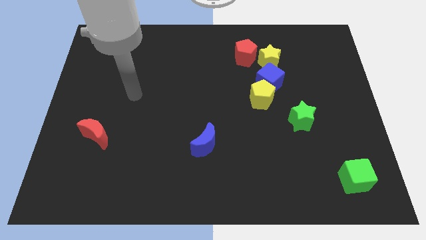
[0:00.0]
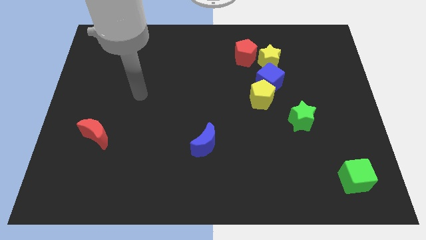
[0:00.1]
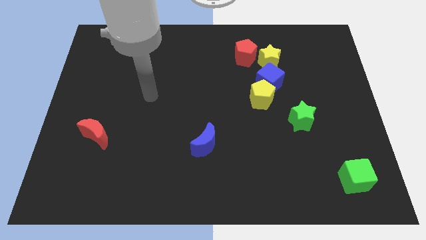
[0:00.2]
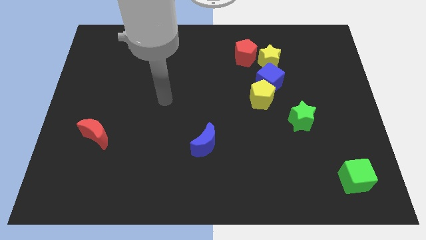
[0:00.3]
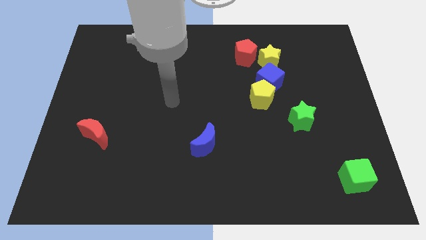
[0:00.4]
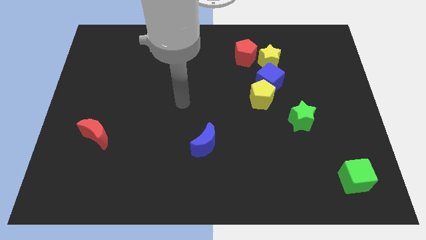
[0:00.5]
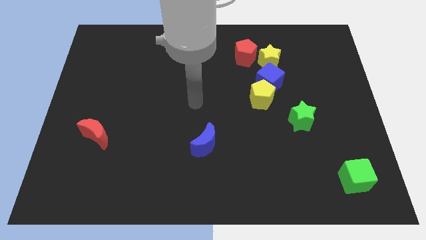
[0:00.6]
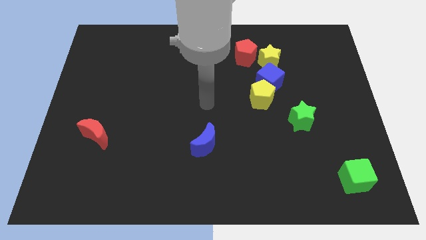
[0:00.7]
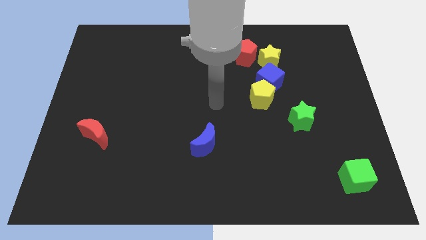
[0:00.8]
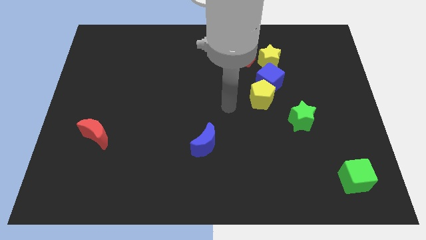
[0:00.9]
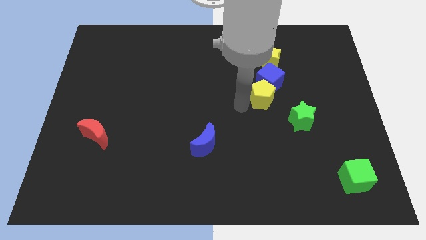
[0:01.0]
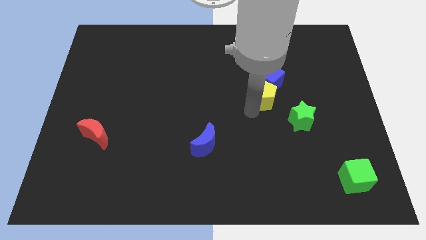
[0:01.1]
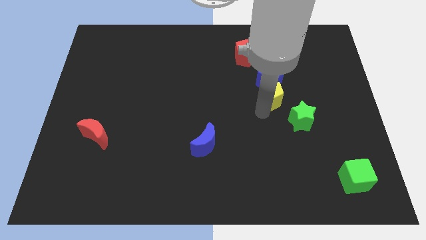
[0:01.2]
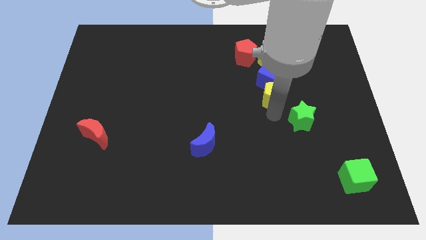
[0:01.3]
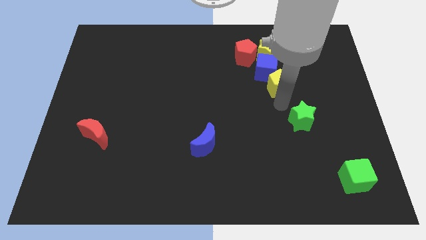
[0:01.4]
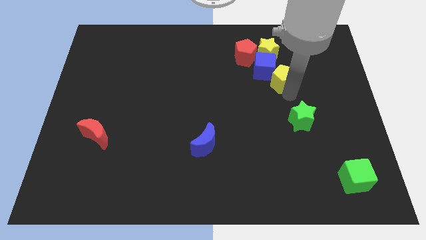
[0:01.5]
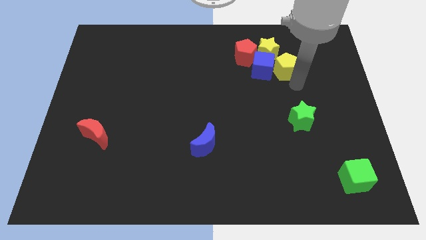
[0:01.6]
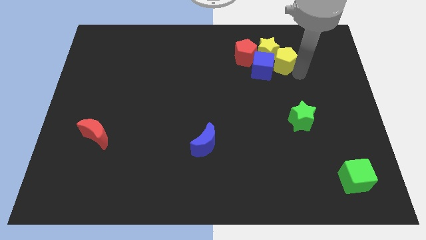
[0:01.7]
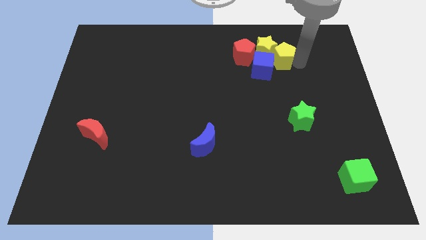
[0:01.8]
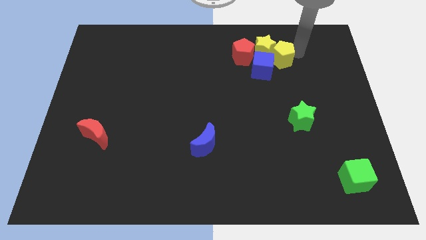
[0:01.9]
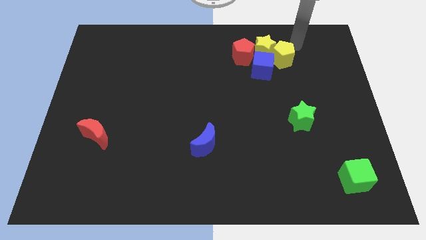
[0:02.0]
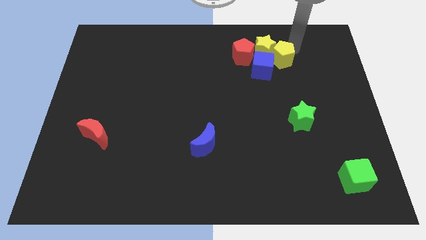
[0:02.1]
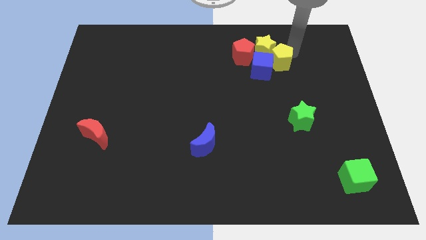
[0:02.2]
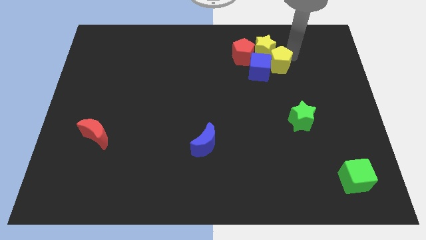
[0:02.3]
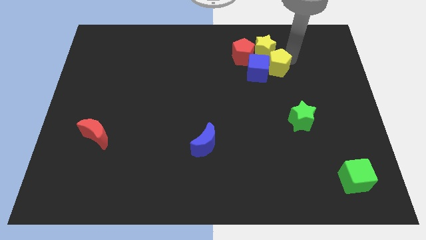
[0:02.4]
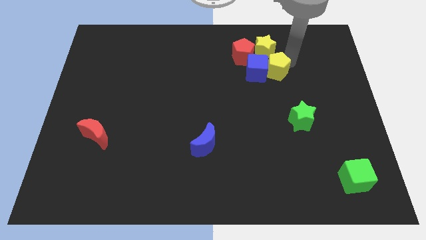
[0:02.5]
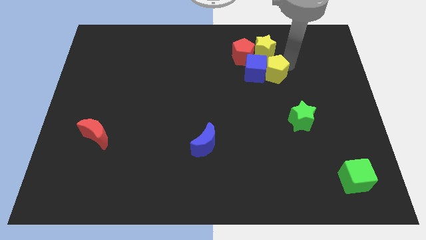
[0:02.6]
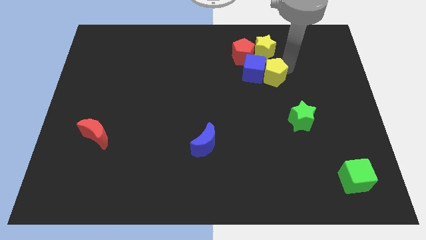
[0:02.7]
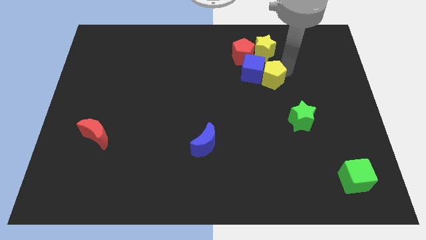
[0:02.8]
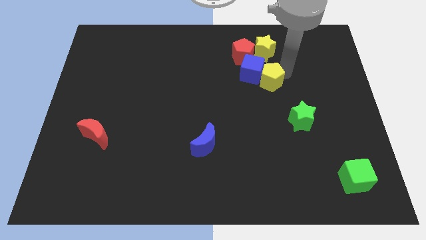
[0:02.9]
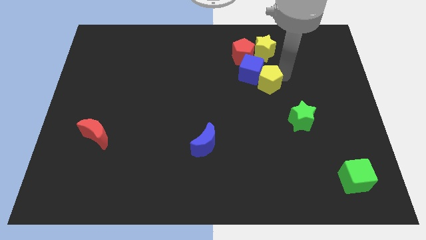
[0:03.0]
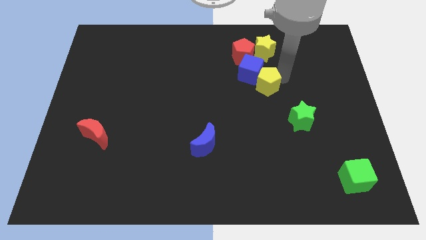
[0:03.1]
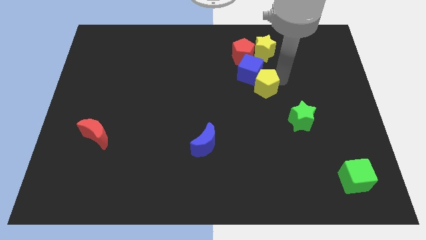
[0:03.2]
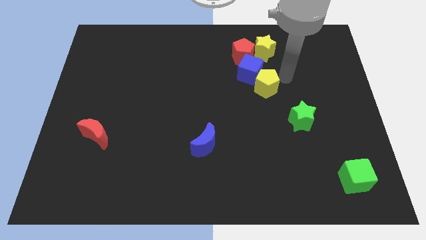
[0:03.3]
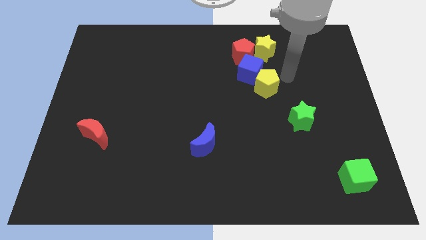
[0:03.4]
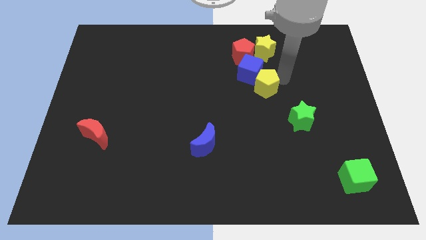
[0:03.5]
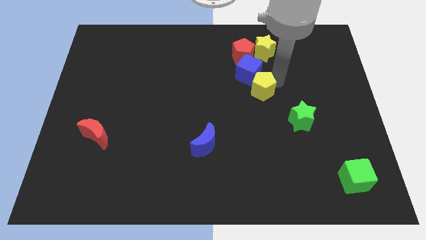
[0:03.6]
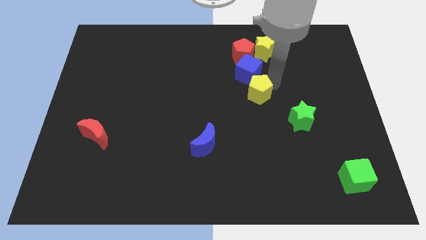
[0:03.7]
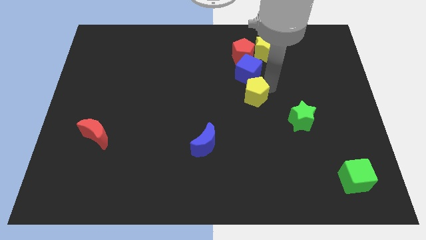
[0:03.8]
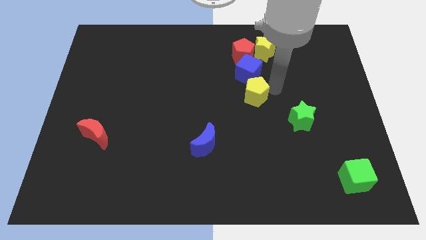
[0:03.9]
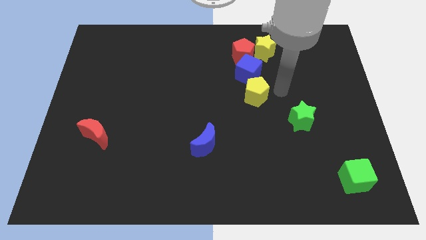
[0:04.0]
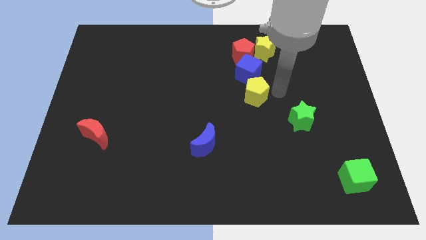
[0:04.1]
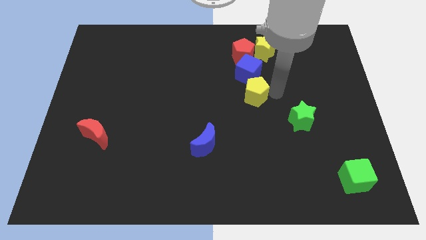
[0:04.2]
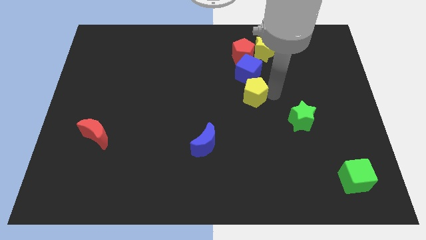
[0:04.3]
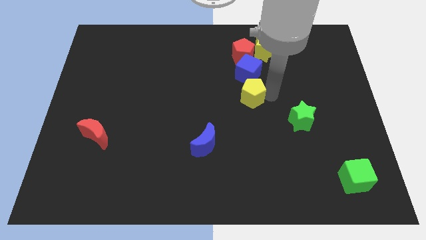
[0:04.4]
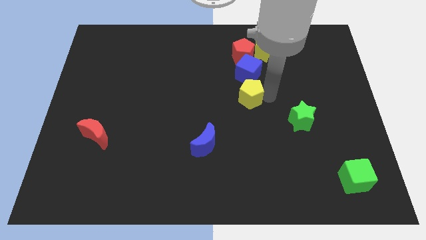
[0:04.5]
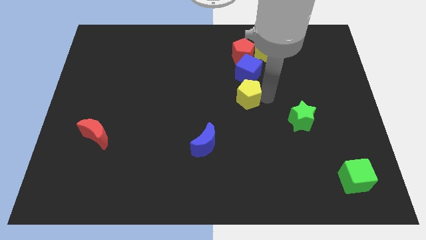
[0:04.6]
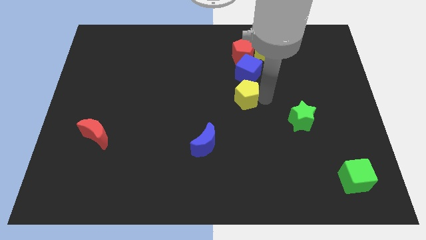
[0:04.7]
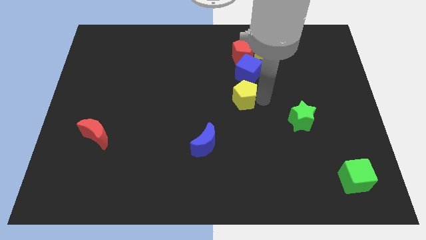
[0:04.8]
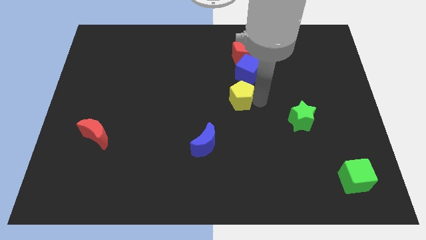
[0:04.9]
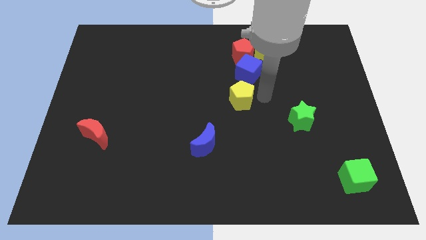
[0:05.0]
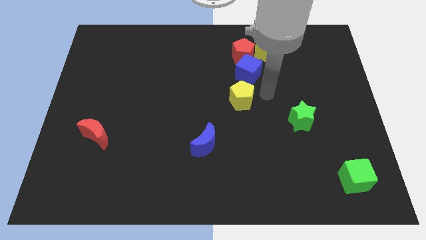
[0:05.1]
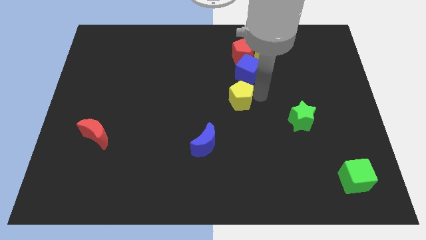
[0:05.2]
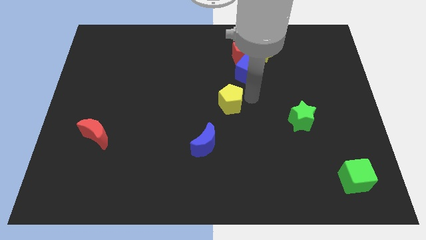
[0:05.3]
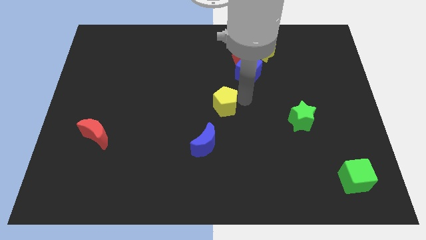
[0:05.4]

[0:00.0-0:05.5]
move the yellow pentagon to the top side of the blue moon

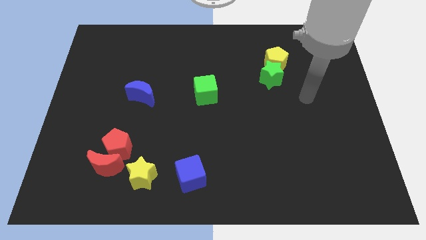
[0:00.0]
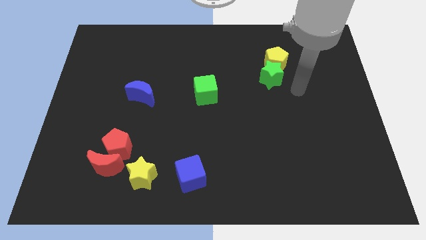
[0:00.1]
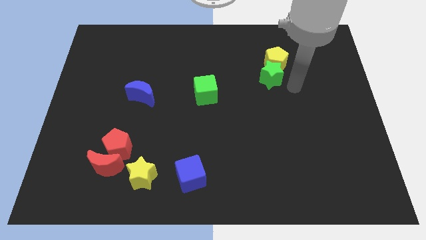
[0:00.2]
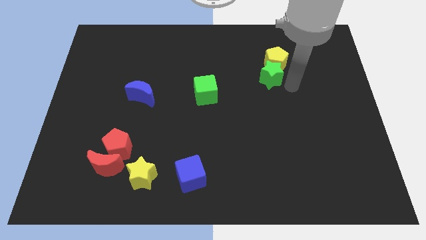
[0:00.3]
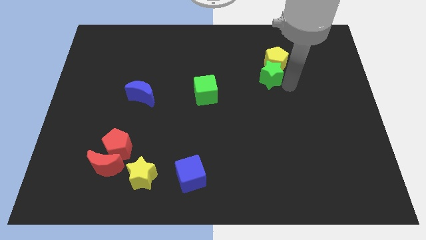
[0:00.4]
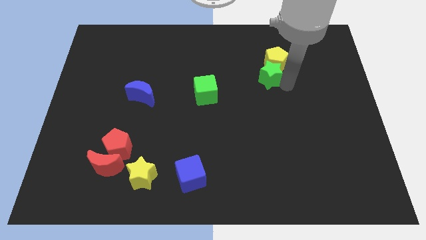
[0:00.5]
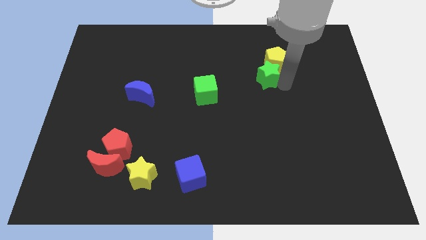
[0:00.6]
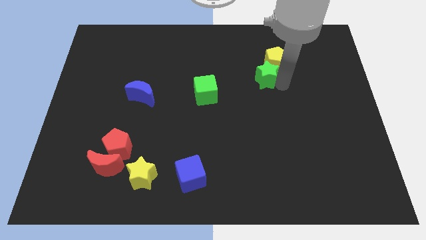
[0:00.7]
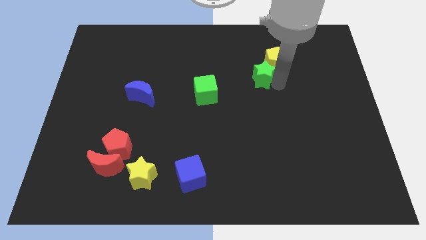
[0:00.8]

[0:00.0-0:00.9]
put the green star to the left of the yellow pentagon

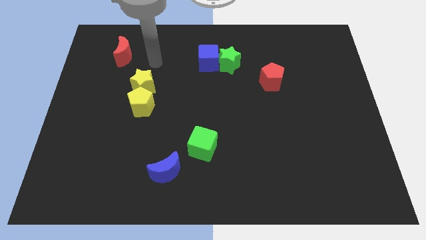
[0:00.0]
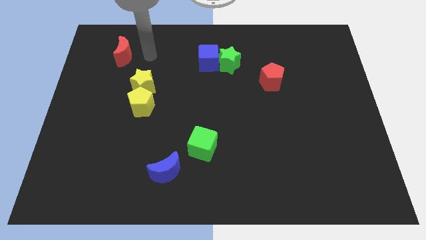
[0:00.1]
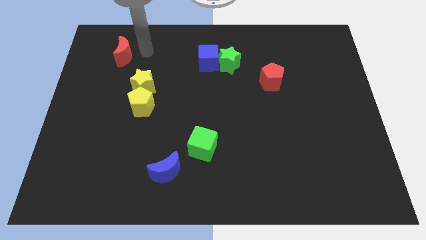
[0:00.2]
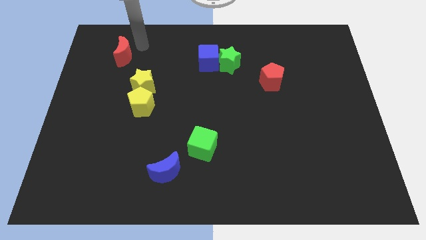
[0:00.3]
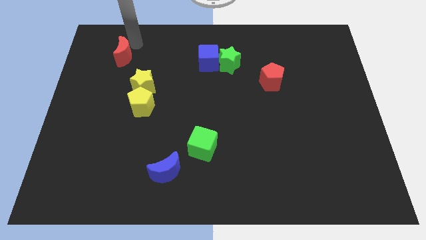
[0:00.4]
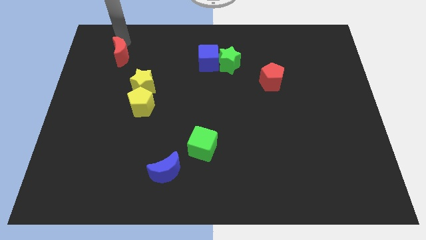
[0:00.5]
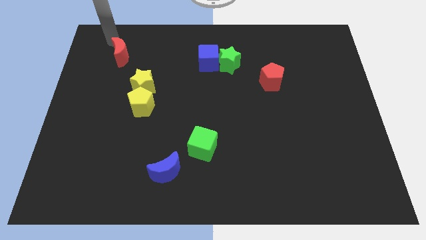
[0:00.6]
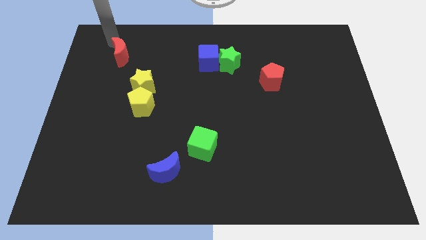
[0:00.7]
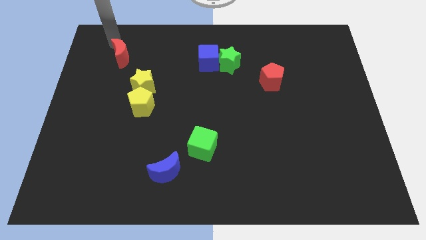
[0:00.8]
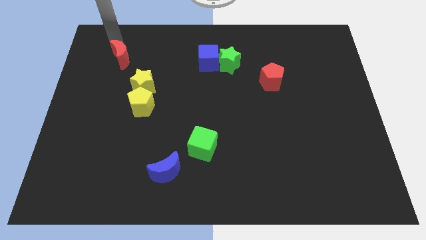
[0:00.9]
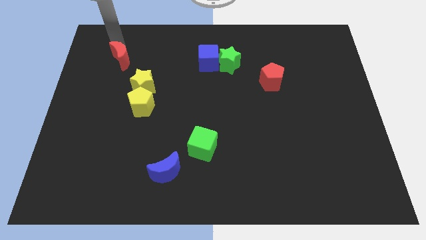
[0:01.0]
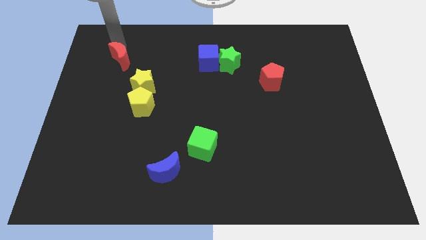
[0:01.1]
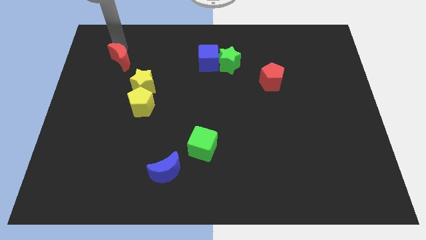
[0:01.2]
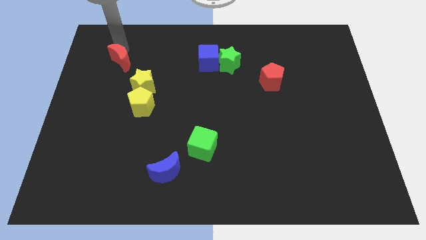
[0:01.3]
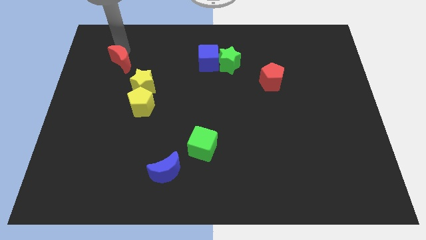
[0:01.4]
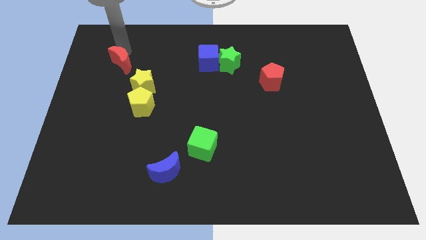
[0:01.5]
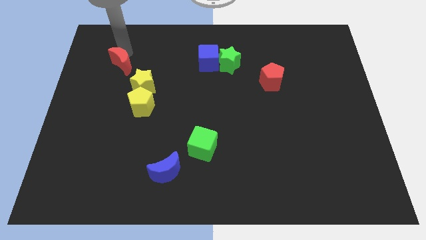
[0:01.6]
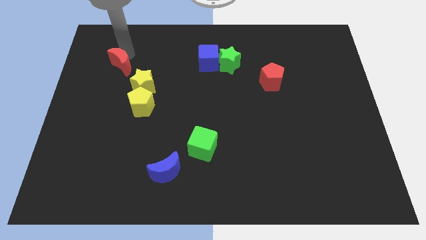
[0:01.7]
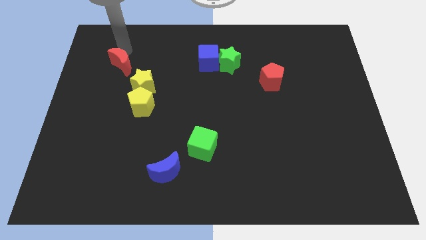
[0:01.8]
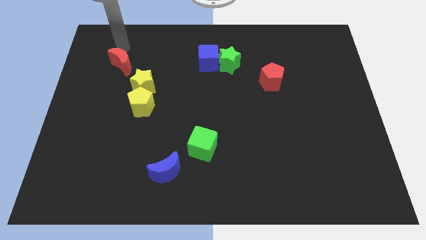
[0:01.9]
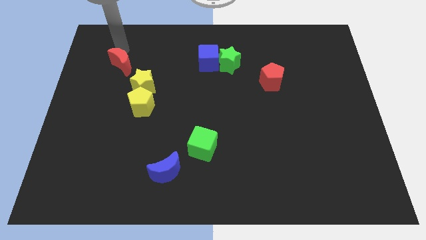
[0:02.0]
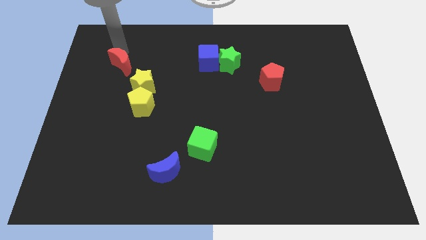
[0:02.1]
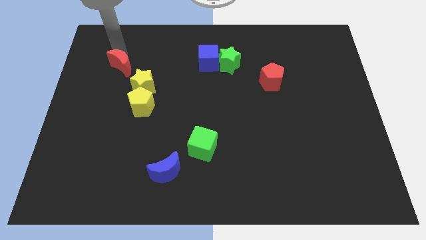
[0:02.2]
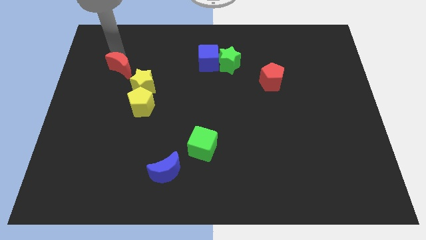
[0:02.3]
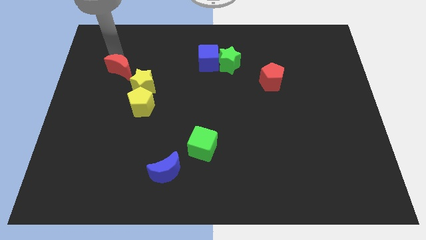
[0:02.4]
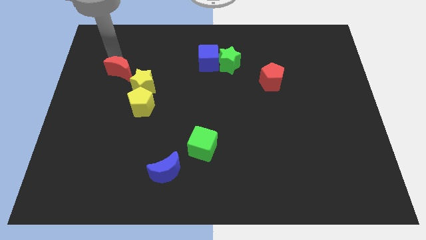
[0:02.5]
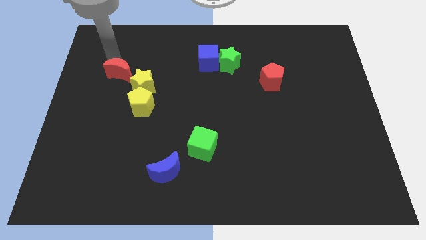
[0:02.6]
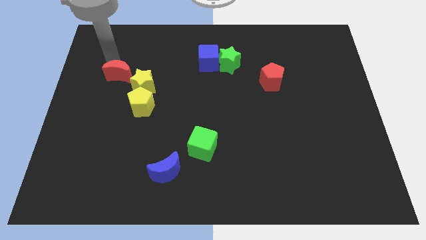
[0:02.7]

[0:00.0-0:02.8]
push the red moon to the top left side of the yellow pentagon
